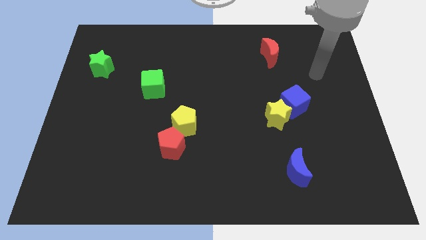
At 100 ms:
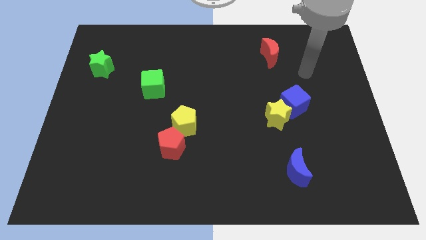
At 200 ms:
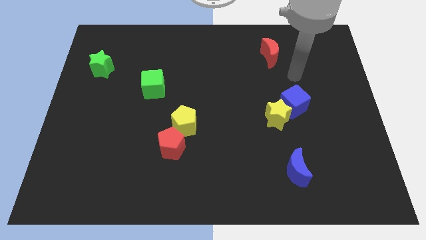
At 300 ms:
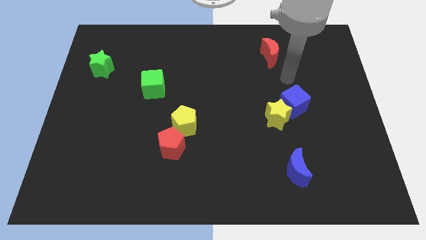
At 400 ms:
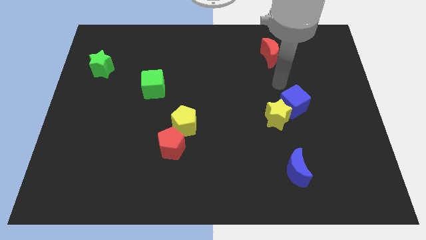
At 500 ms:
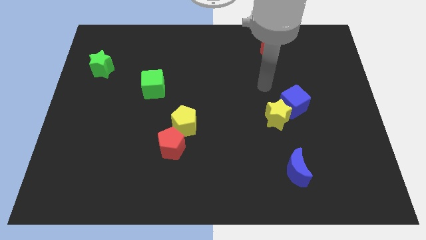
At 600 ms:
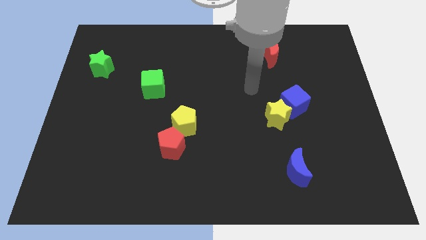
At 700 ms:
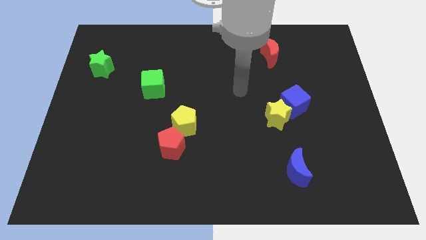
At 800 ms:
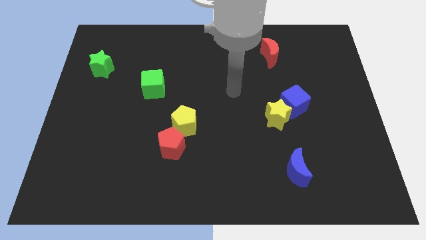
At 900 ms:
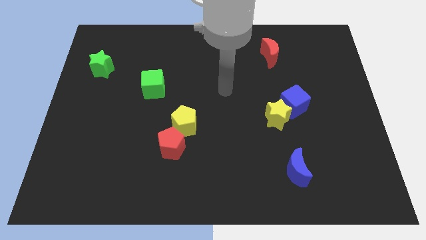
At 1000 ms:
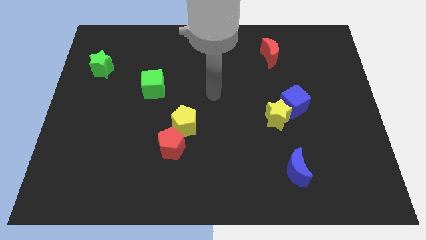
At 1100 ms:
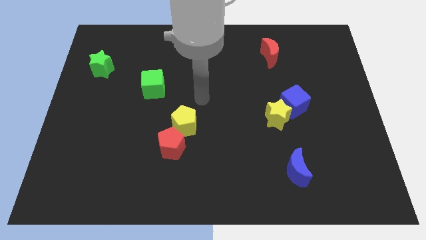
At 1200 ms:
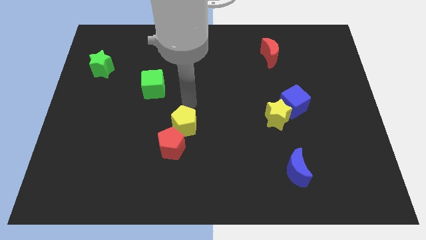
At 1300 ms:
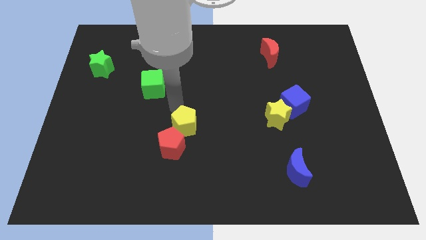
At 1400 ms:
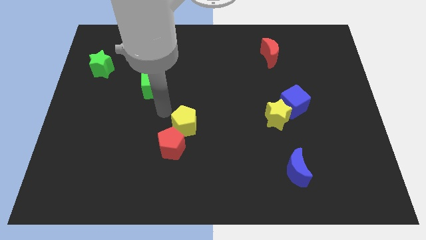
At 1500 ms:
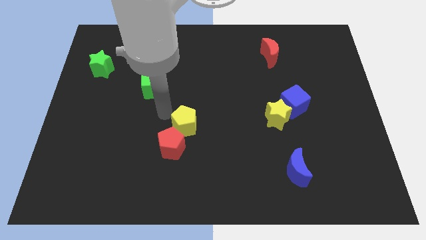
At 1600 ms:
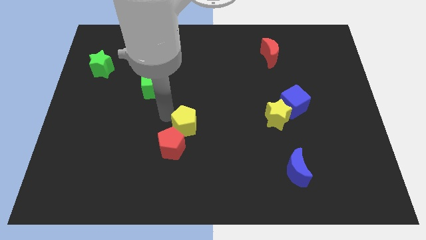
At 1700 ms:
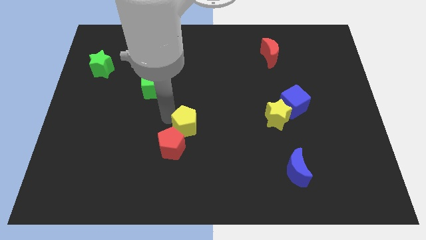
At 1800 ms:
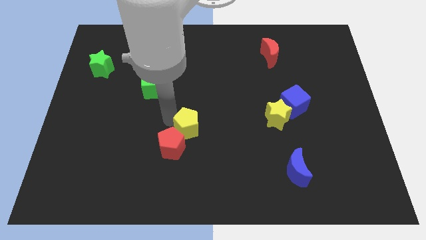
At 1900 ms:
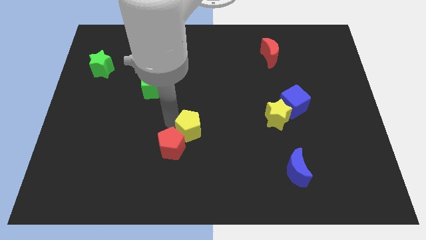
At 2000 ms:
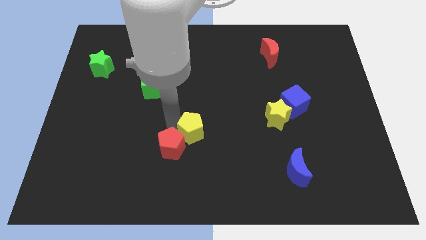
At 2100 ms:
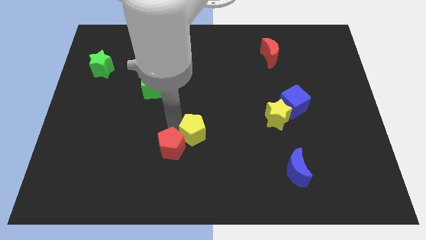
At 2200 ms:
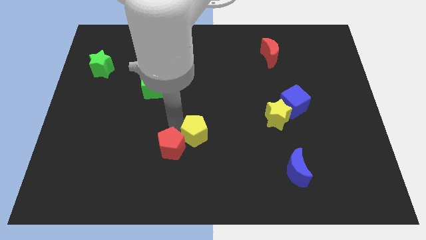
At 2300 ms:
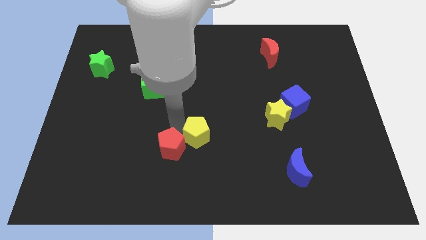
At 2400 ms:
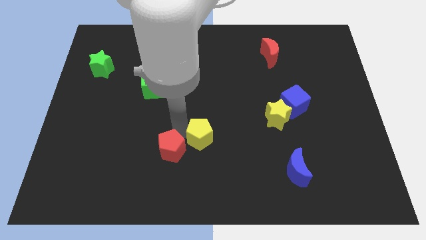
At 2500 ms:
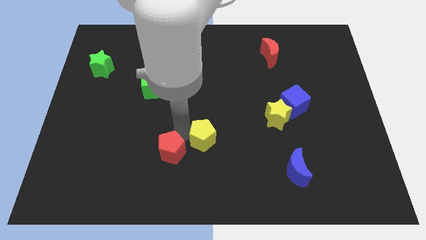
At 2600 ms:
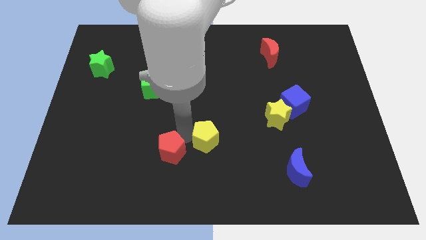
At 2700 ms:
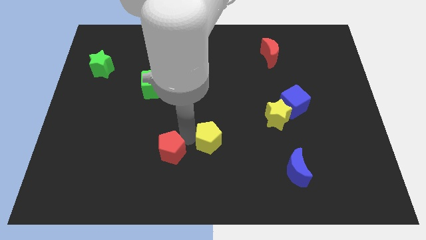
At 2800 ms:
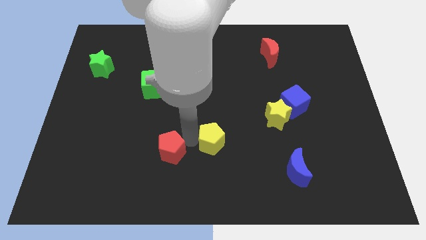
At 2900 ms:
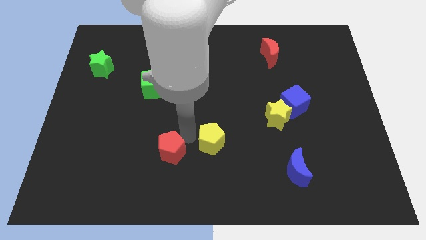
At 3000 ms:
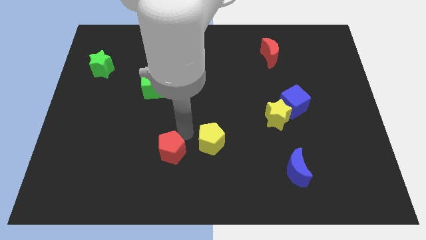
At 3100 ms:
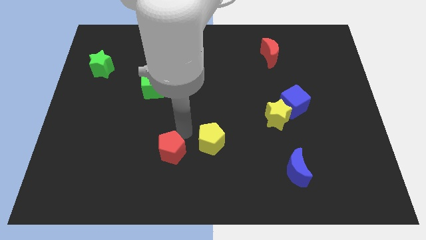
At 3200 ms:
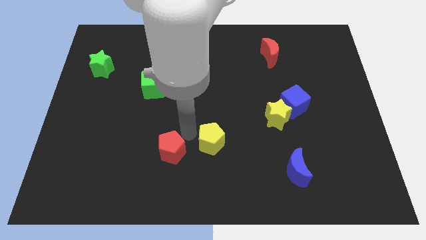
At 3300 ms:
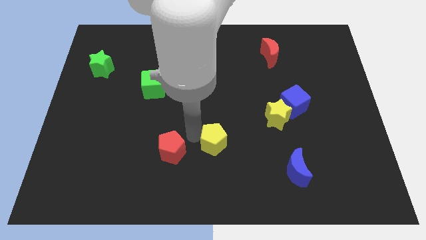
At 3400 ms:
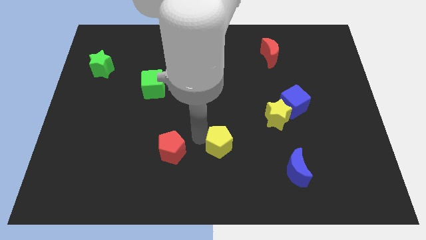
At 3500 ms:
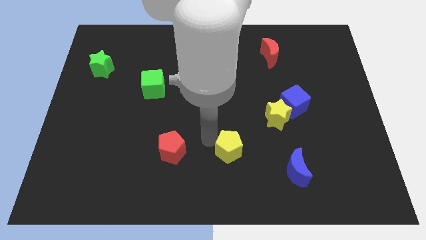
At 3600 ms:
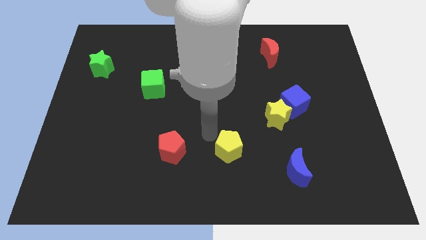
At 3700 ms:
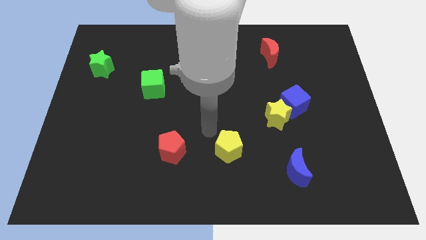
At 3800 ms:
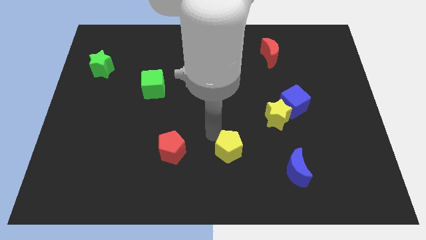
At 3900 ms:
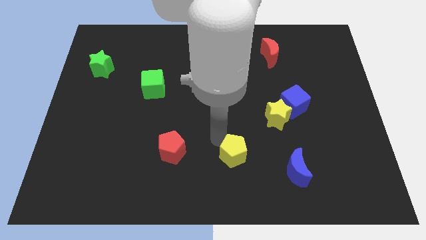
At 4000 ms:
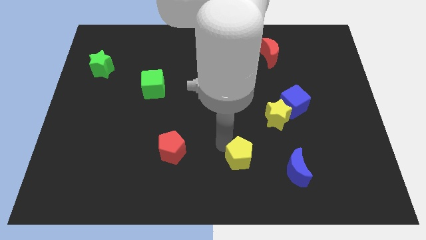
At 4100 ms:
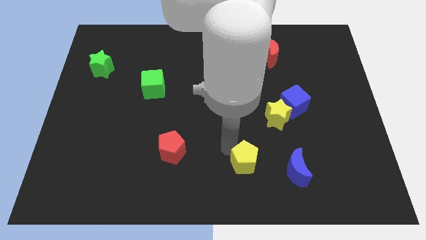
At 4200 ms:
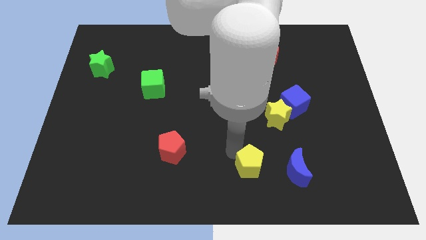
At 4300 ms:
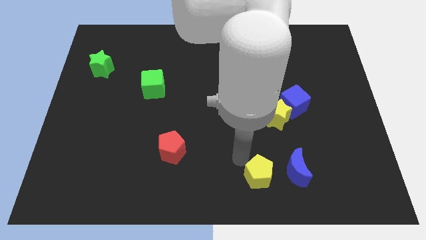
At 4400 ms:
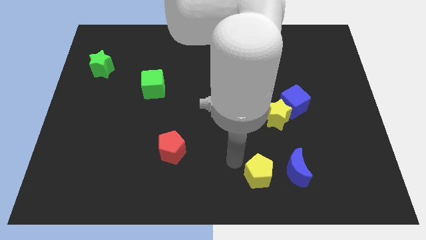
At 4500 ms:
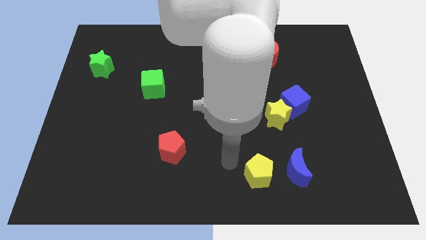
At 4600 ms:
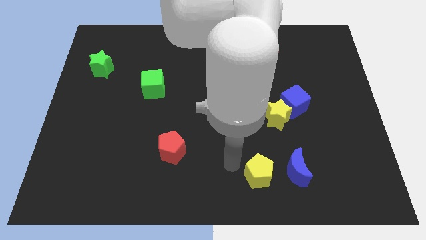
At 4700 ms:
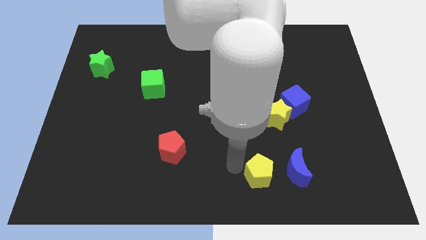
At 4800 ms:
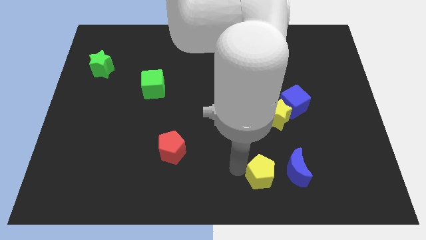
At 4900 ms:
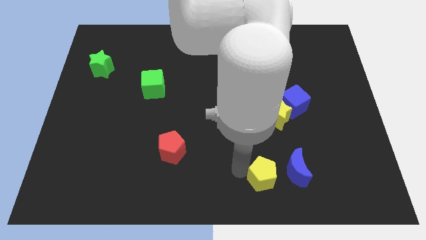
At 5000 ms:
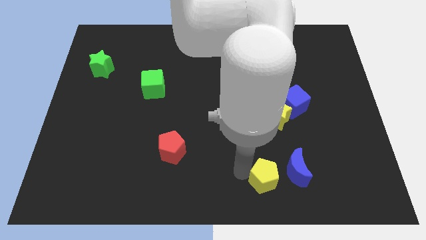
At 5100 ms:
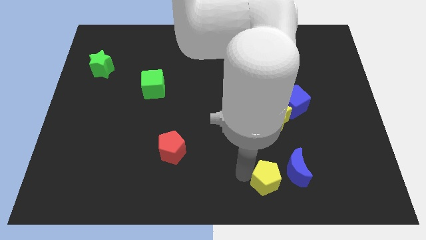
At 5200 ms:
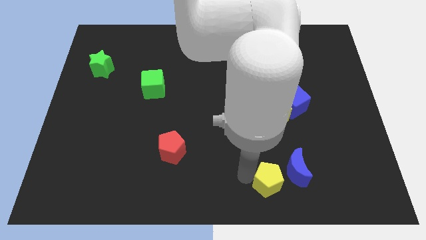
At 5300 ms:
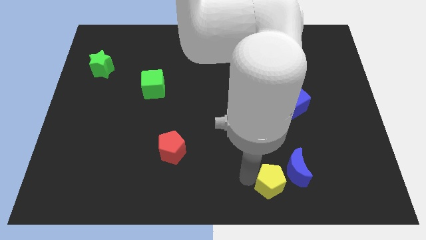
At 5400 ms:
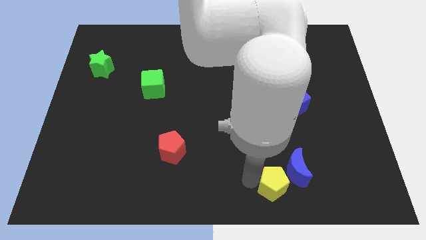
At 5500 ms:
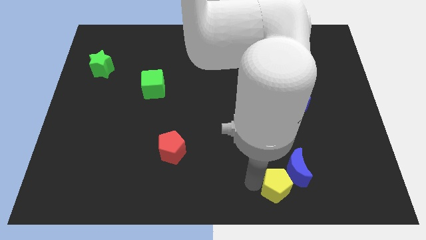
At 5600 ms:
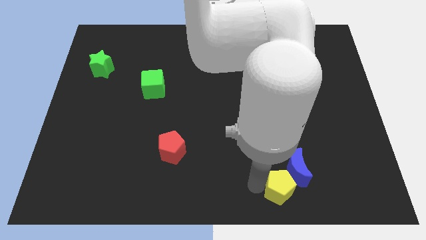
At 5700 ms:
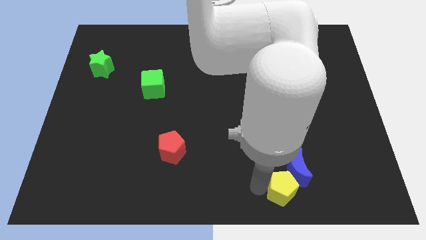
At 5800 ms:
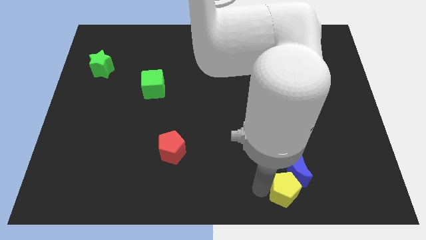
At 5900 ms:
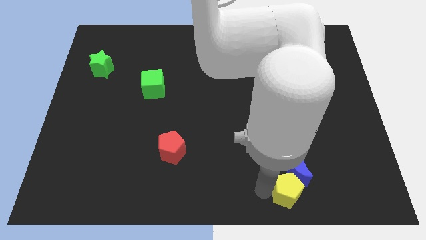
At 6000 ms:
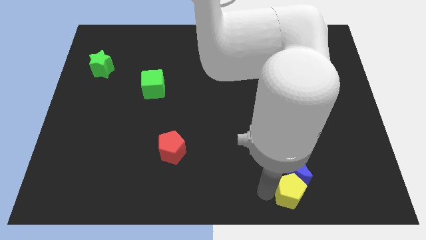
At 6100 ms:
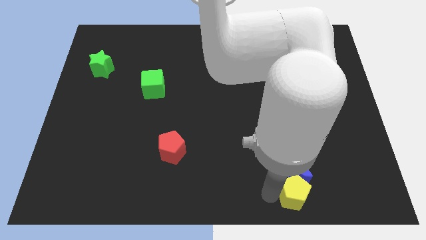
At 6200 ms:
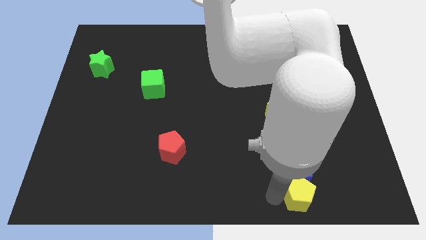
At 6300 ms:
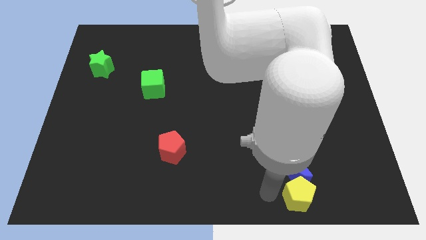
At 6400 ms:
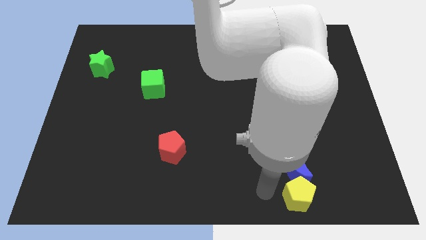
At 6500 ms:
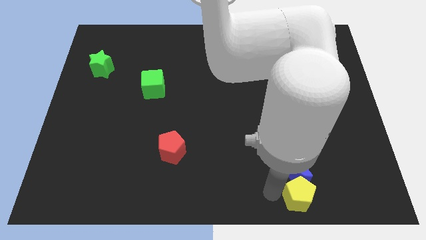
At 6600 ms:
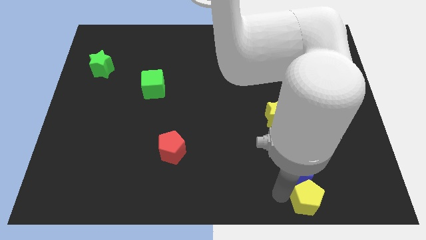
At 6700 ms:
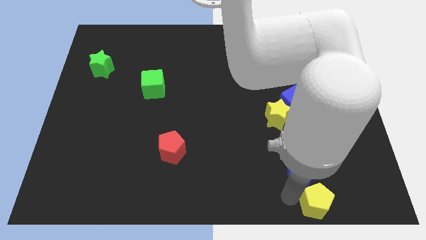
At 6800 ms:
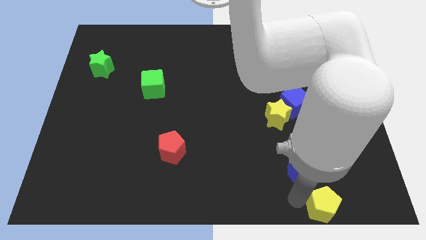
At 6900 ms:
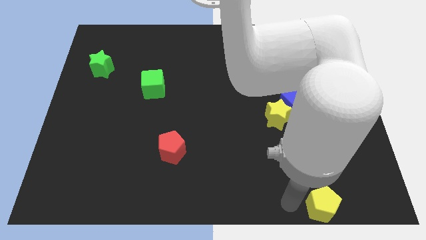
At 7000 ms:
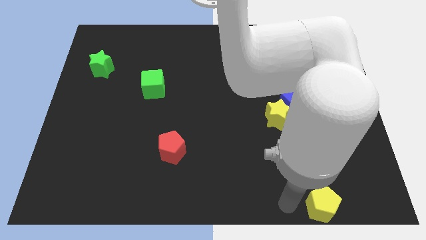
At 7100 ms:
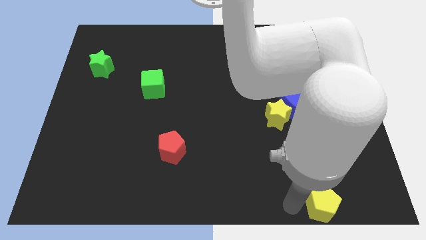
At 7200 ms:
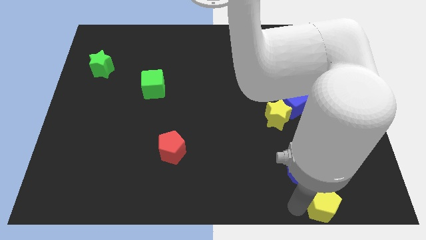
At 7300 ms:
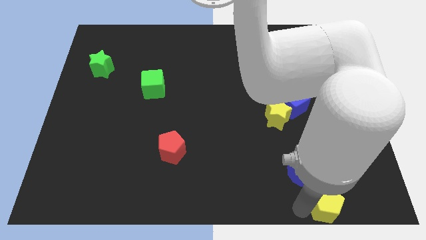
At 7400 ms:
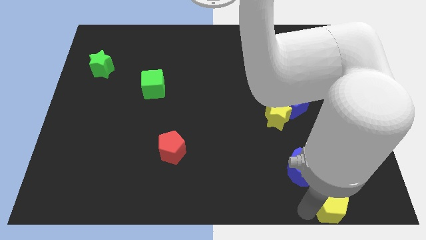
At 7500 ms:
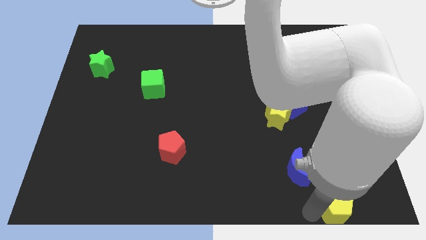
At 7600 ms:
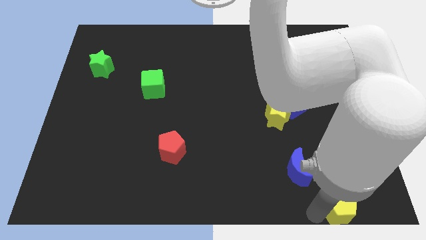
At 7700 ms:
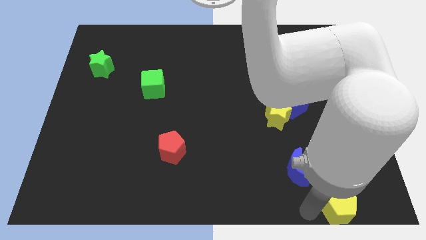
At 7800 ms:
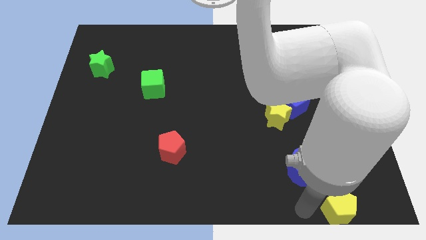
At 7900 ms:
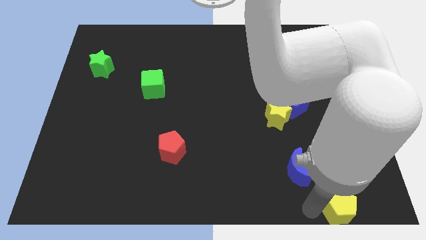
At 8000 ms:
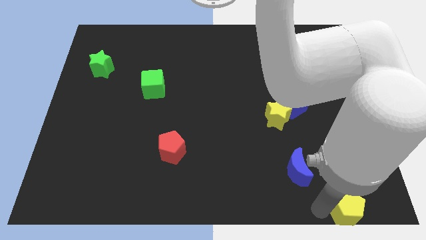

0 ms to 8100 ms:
push the yellow pentagon to the lower right corner
